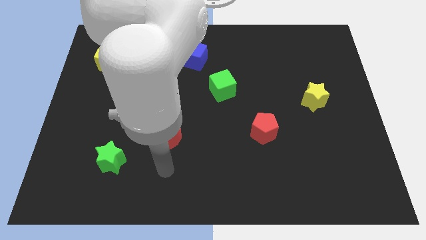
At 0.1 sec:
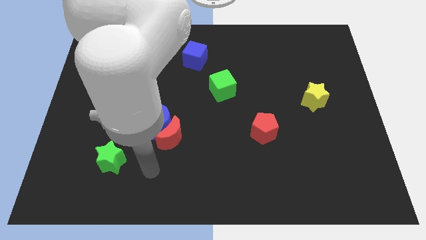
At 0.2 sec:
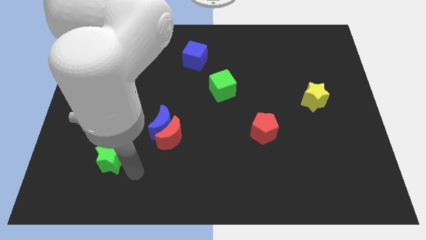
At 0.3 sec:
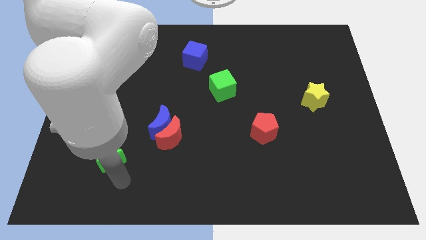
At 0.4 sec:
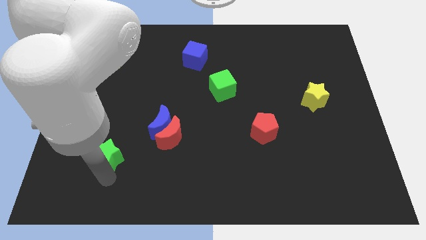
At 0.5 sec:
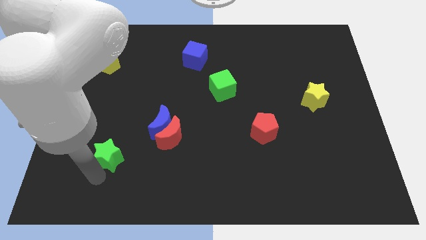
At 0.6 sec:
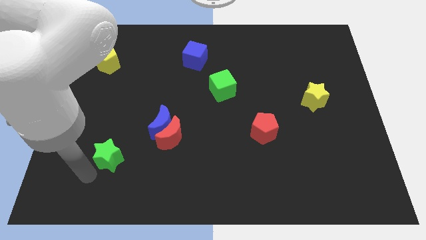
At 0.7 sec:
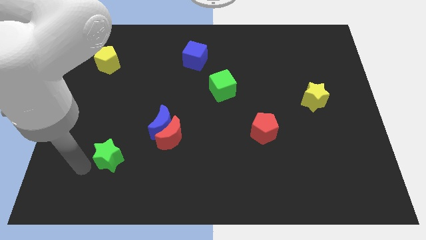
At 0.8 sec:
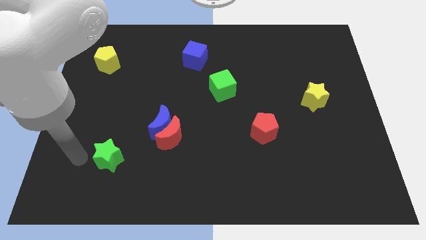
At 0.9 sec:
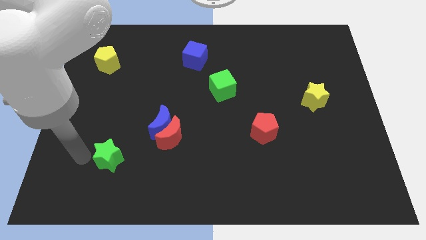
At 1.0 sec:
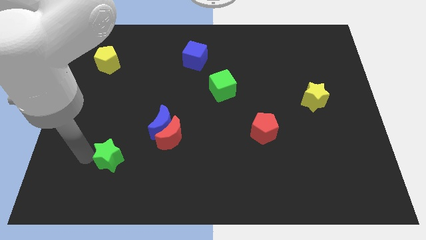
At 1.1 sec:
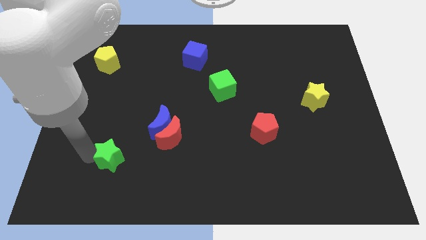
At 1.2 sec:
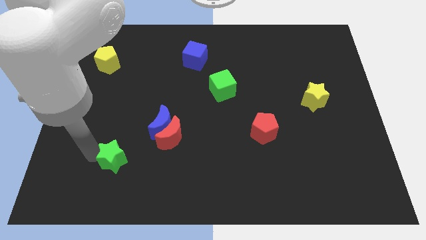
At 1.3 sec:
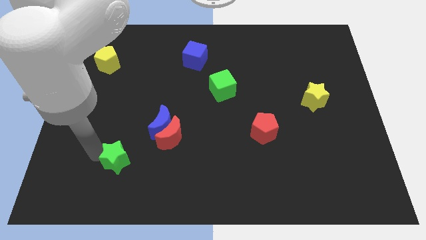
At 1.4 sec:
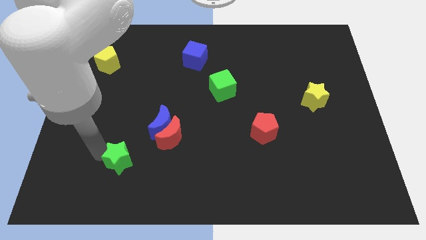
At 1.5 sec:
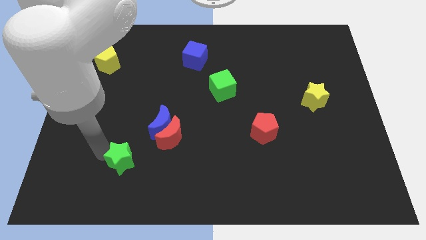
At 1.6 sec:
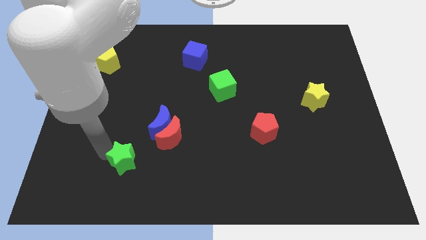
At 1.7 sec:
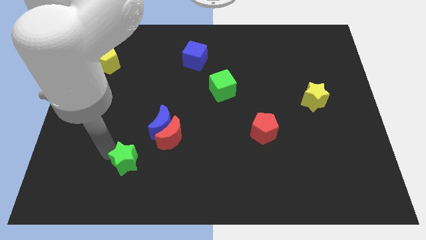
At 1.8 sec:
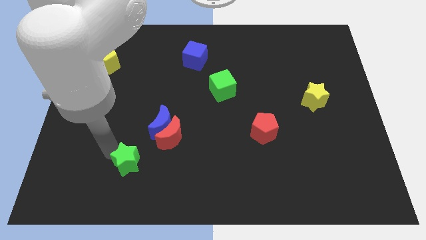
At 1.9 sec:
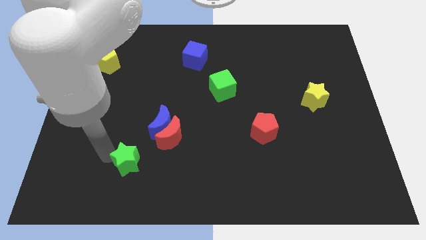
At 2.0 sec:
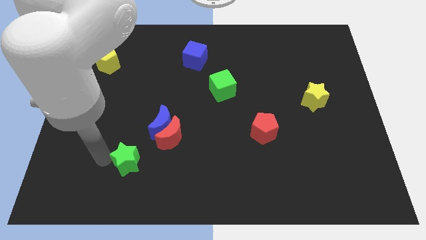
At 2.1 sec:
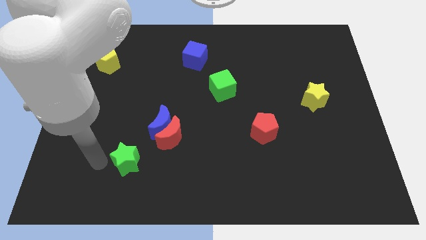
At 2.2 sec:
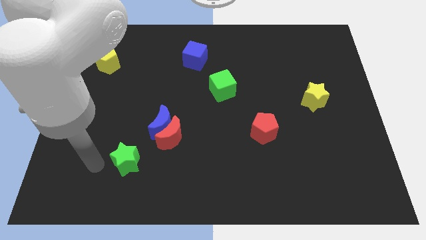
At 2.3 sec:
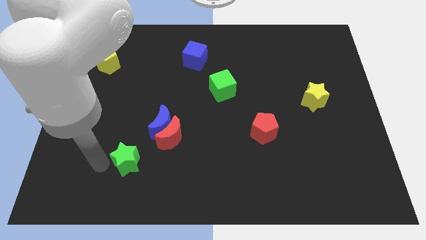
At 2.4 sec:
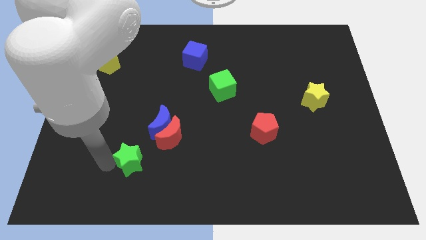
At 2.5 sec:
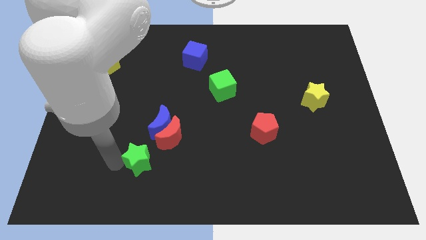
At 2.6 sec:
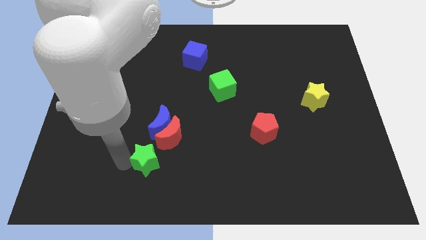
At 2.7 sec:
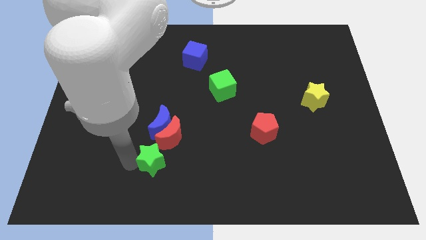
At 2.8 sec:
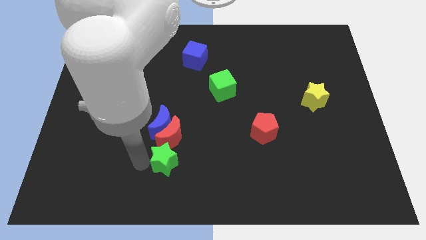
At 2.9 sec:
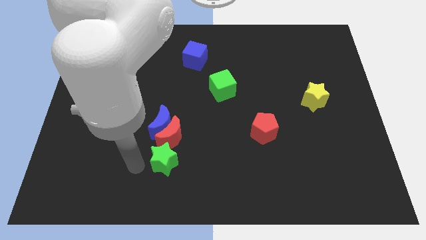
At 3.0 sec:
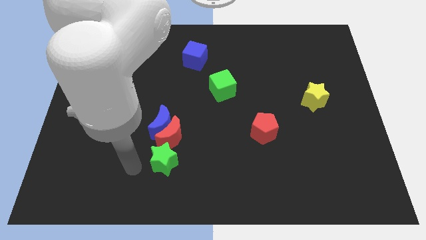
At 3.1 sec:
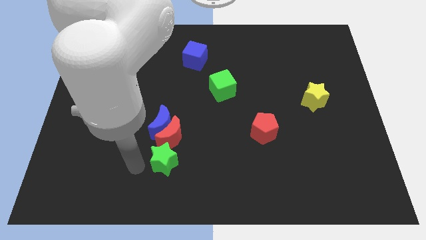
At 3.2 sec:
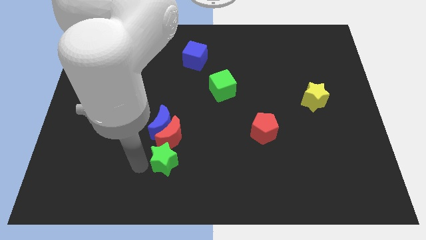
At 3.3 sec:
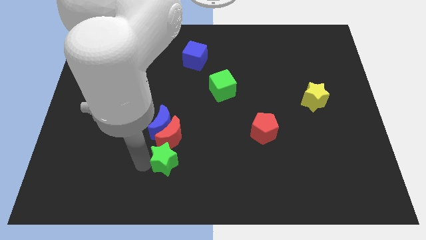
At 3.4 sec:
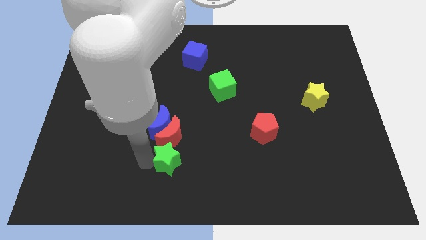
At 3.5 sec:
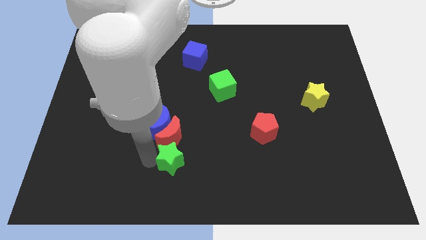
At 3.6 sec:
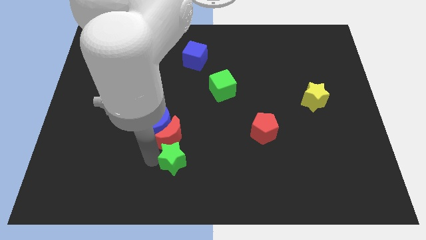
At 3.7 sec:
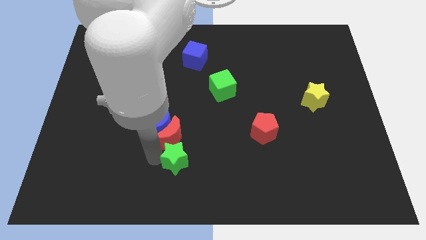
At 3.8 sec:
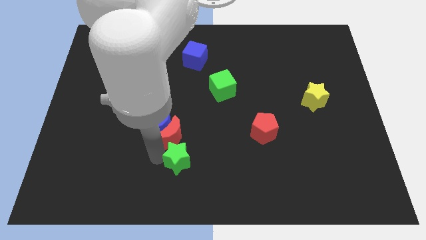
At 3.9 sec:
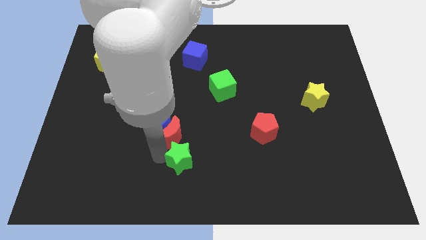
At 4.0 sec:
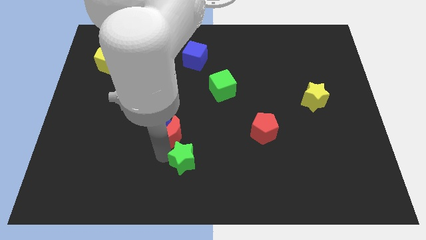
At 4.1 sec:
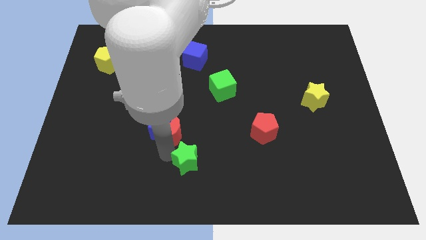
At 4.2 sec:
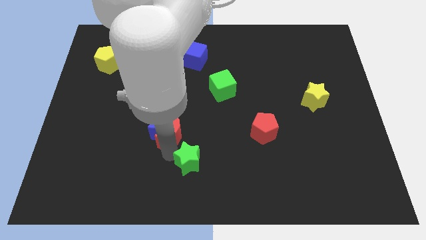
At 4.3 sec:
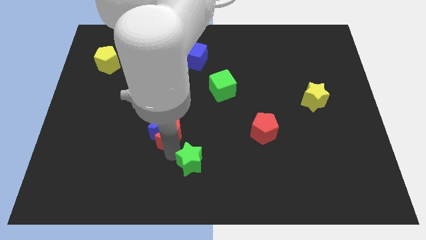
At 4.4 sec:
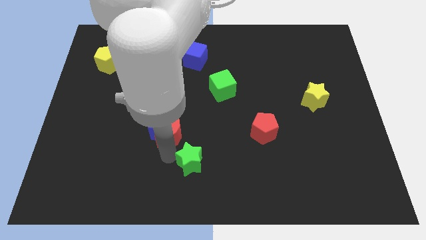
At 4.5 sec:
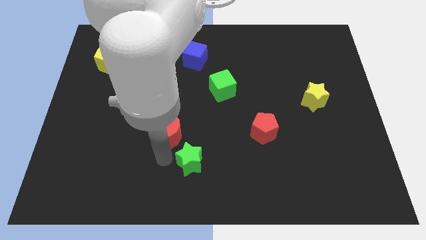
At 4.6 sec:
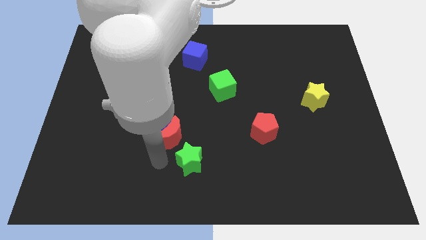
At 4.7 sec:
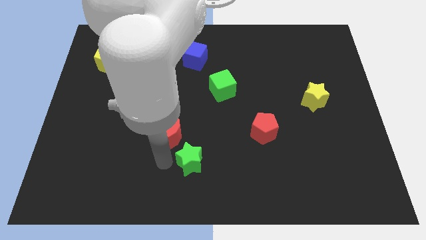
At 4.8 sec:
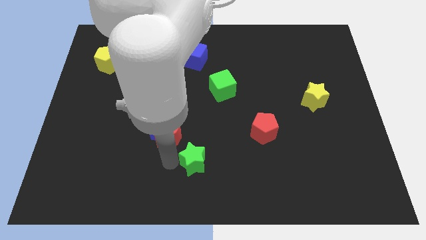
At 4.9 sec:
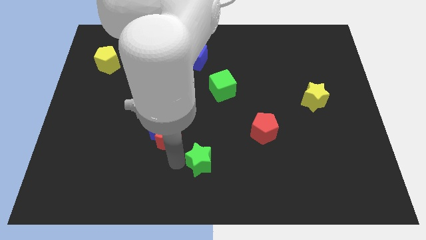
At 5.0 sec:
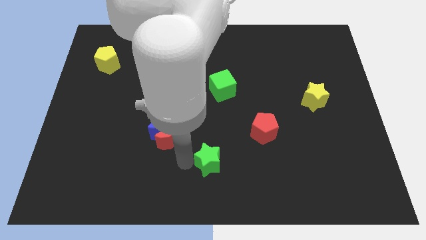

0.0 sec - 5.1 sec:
move the green star right

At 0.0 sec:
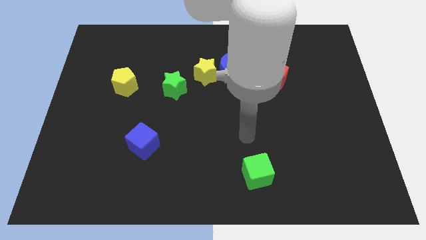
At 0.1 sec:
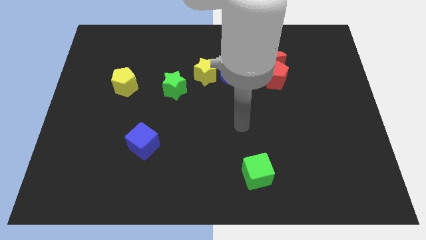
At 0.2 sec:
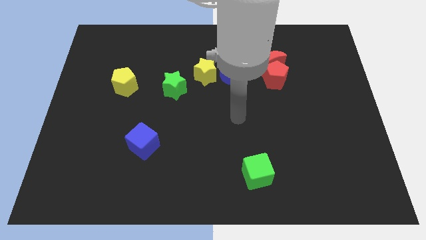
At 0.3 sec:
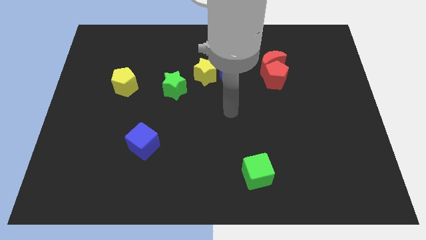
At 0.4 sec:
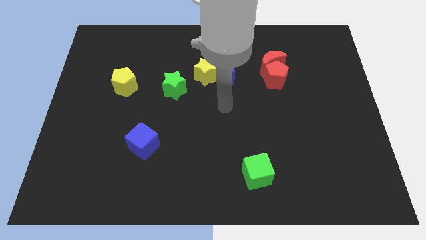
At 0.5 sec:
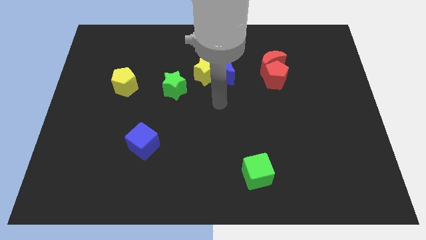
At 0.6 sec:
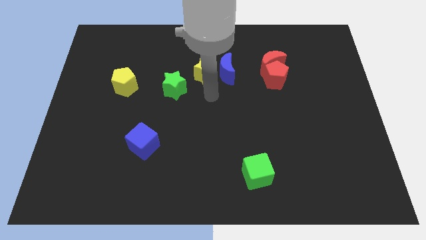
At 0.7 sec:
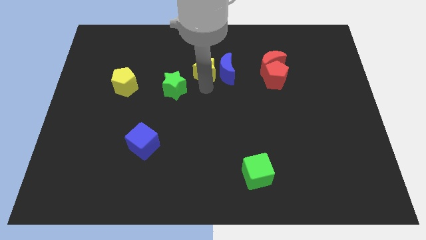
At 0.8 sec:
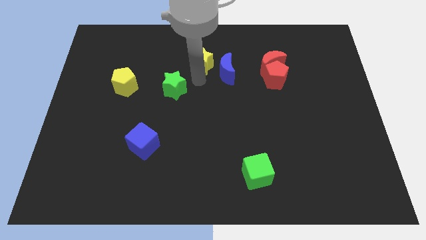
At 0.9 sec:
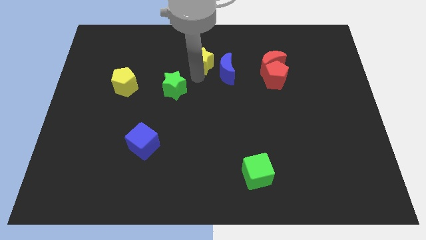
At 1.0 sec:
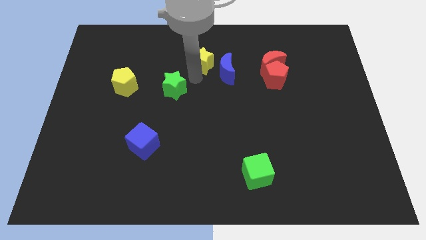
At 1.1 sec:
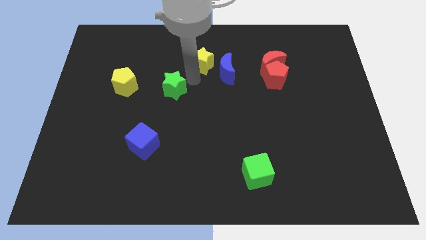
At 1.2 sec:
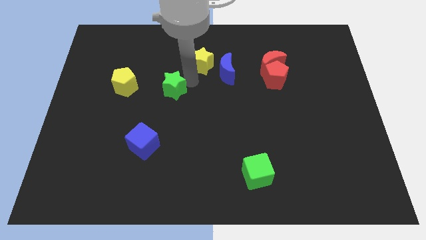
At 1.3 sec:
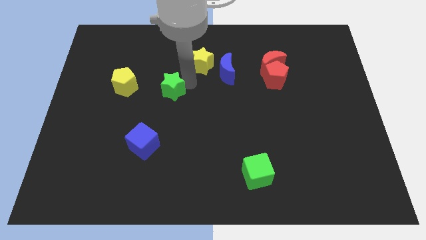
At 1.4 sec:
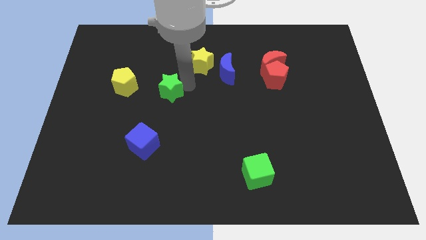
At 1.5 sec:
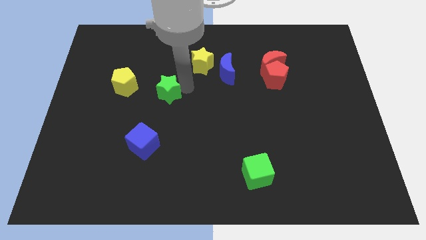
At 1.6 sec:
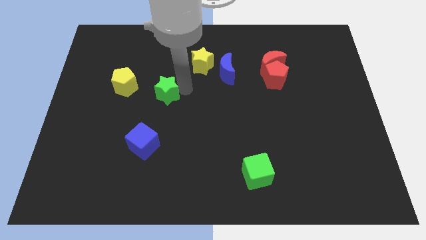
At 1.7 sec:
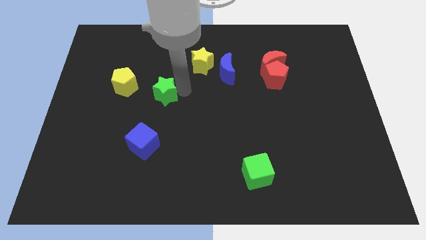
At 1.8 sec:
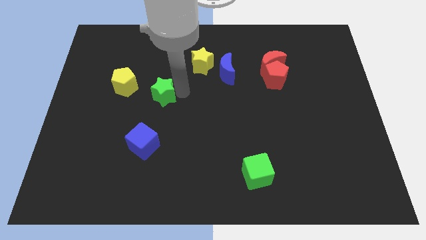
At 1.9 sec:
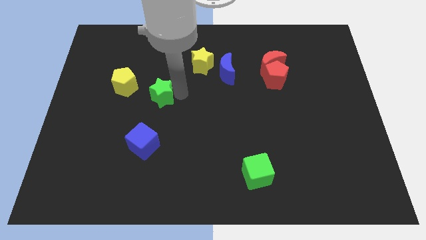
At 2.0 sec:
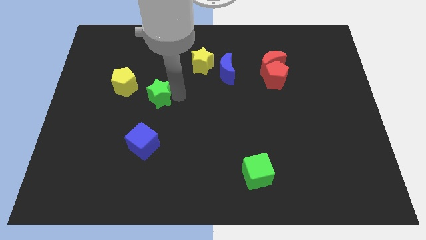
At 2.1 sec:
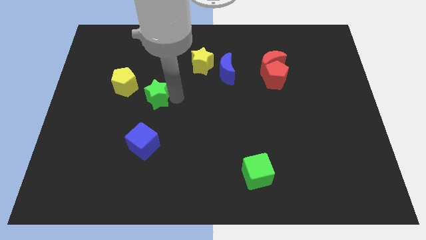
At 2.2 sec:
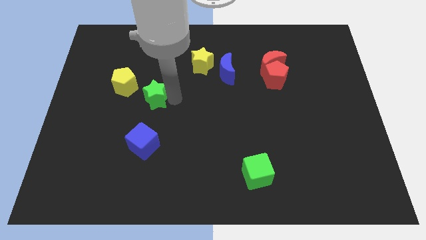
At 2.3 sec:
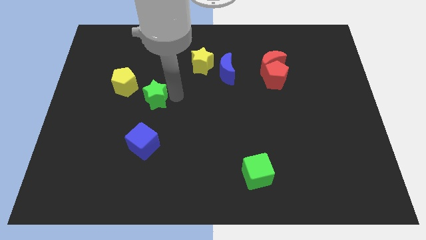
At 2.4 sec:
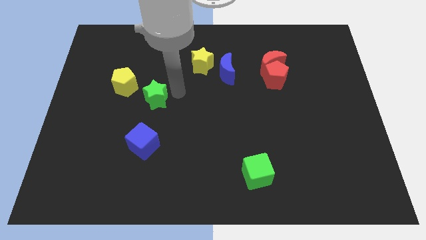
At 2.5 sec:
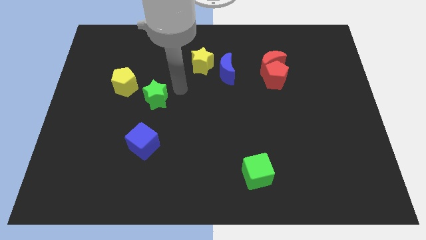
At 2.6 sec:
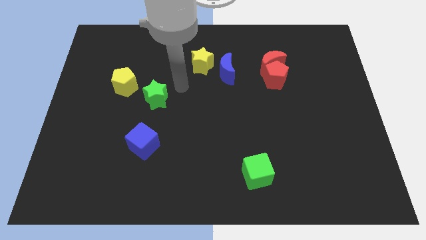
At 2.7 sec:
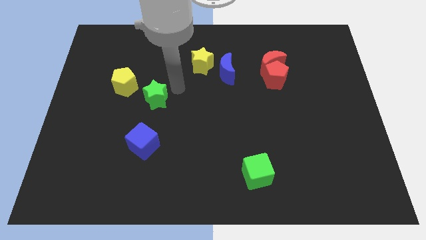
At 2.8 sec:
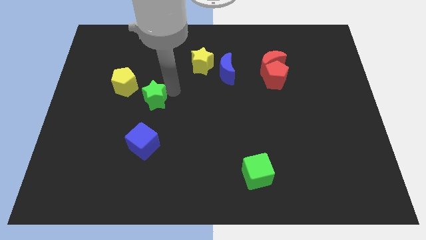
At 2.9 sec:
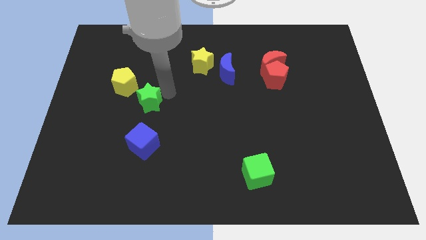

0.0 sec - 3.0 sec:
move the green star downwards and then to the left a little
